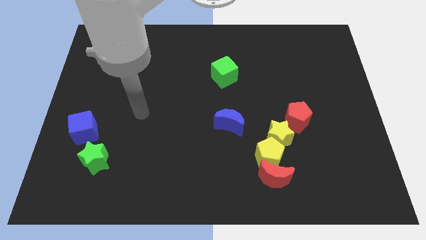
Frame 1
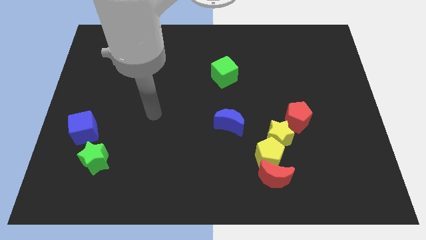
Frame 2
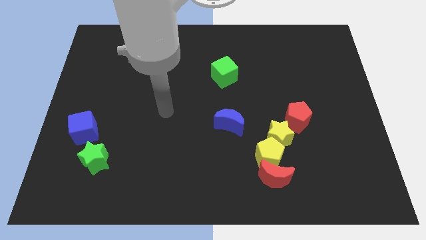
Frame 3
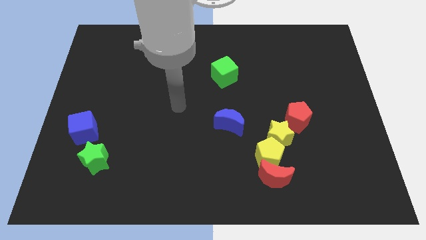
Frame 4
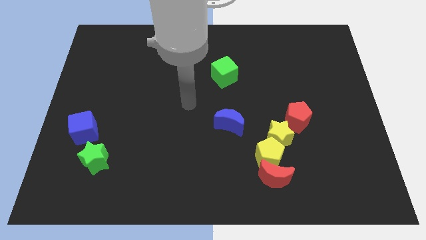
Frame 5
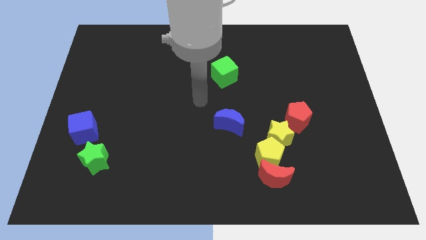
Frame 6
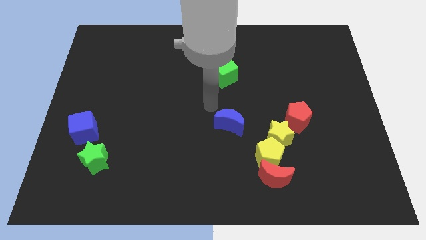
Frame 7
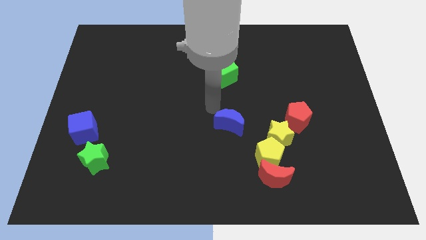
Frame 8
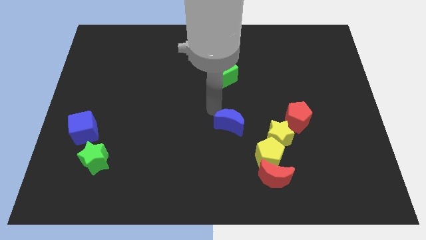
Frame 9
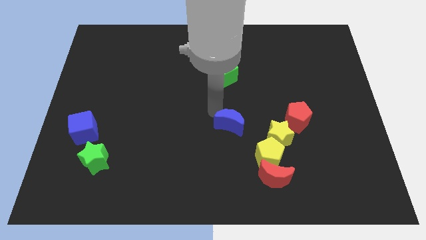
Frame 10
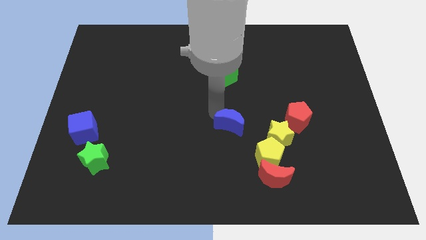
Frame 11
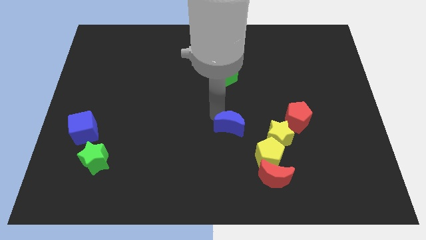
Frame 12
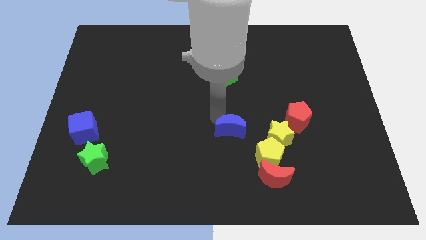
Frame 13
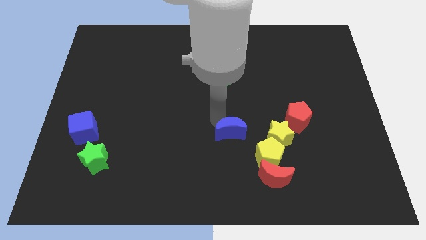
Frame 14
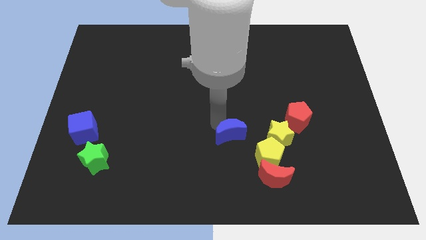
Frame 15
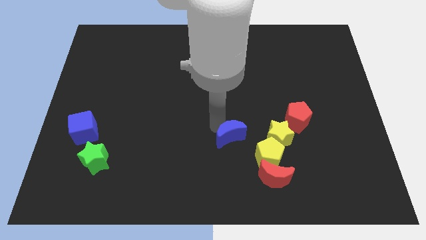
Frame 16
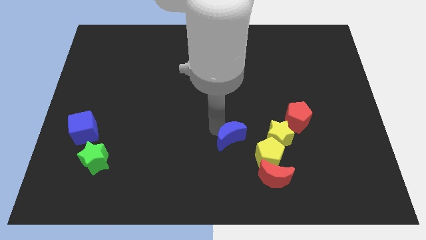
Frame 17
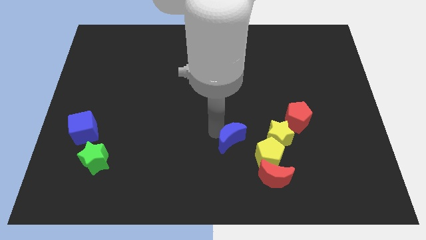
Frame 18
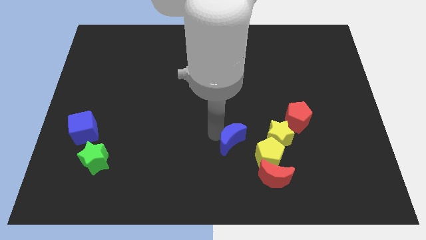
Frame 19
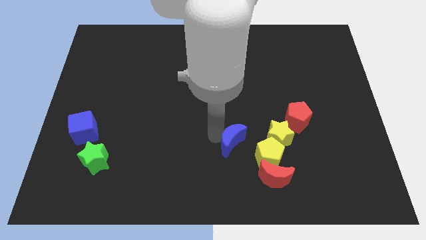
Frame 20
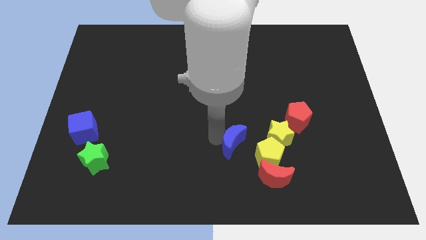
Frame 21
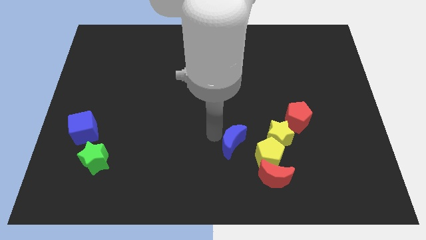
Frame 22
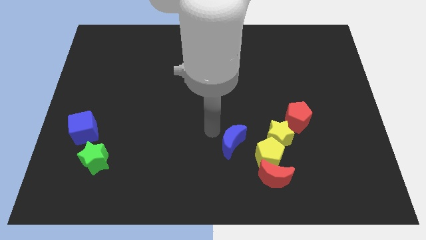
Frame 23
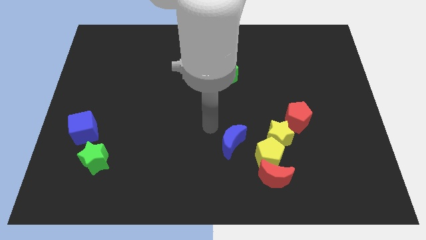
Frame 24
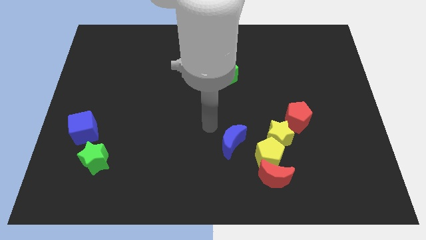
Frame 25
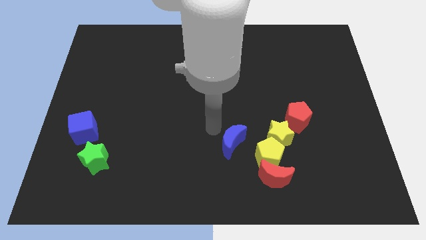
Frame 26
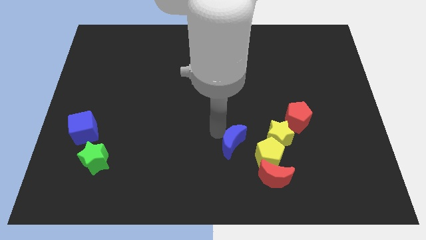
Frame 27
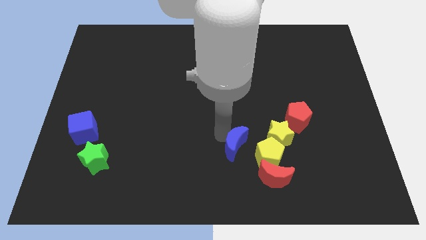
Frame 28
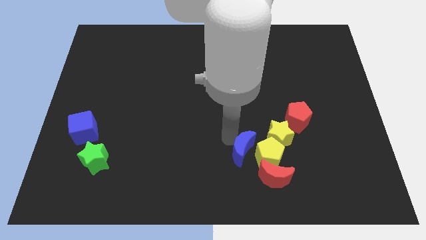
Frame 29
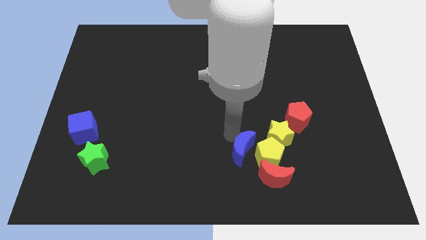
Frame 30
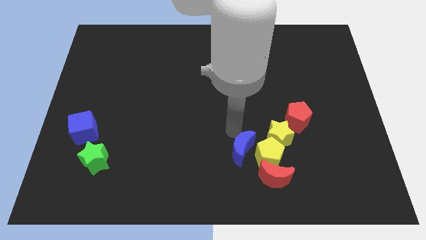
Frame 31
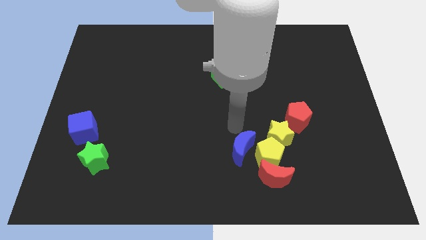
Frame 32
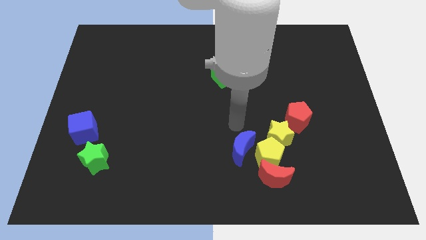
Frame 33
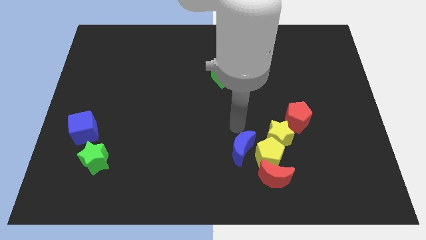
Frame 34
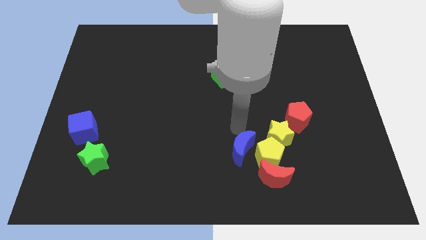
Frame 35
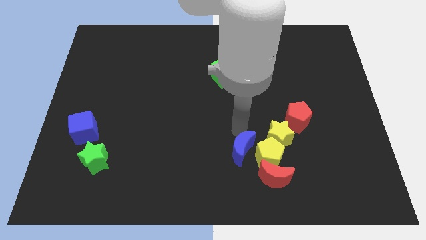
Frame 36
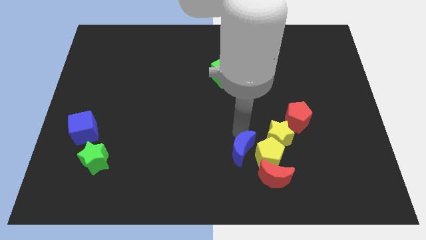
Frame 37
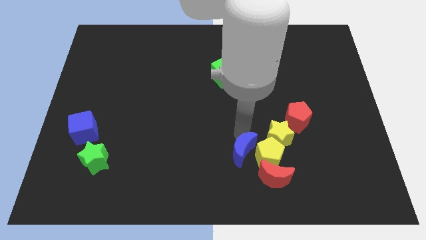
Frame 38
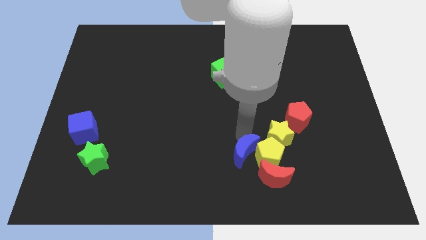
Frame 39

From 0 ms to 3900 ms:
move the blue moon a little diagonally down and right

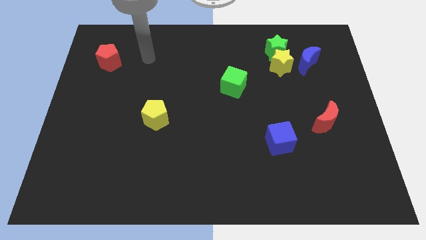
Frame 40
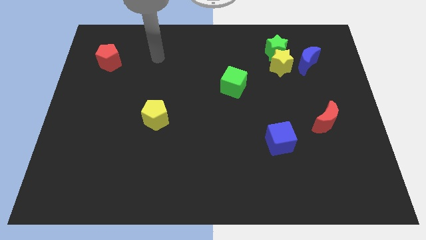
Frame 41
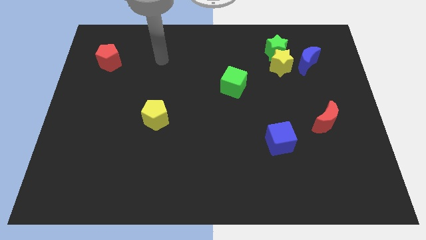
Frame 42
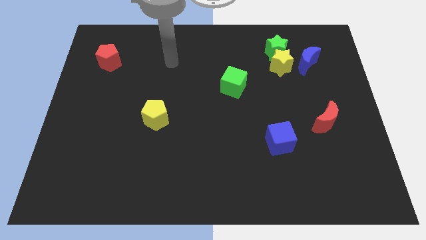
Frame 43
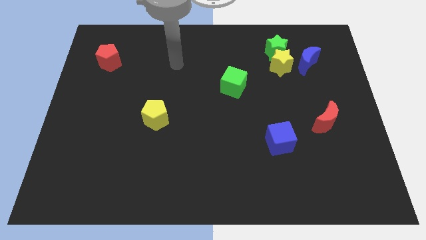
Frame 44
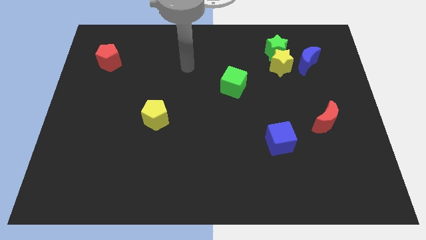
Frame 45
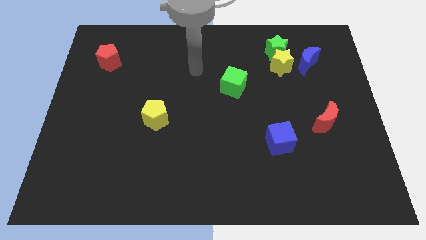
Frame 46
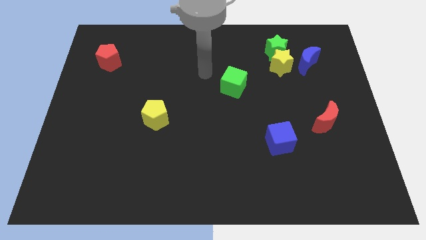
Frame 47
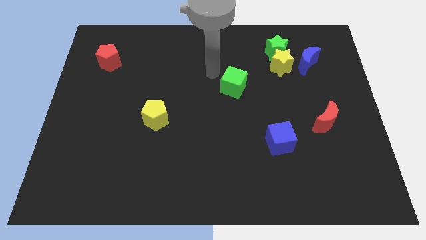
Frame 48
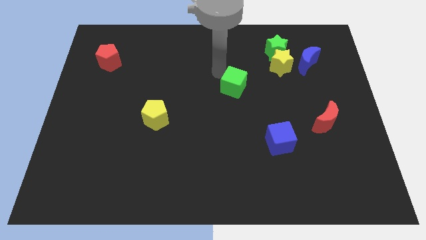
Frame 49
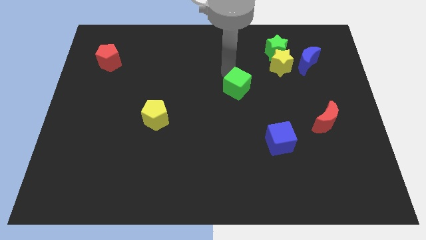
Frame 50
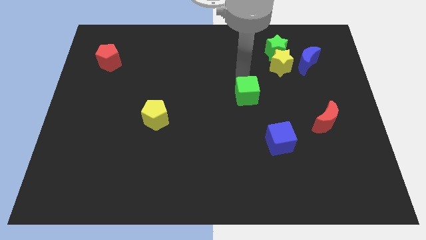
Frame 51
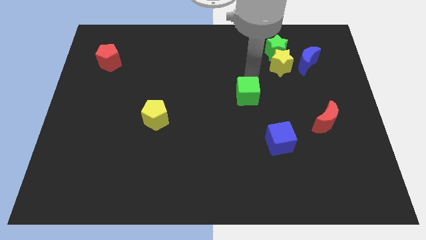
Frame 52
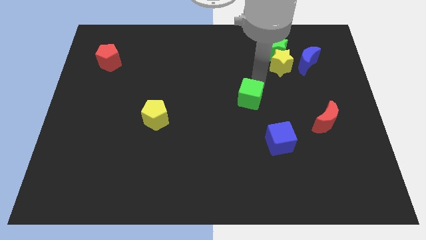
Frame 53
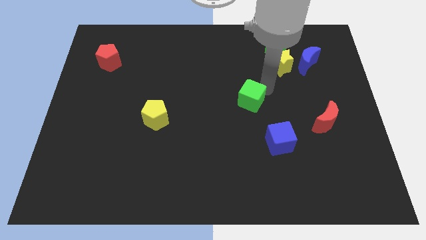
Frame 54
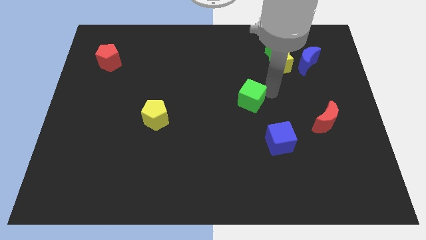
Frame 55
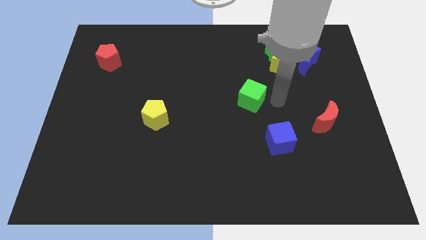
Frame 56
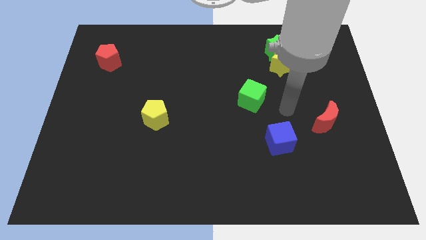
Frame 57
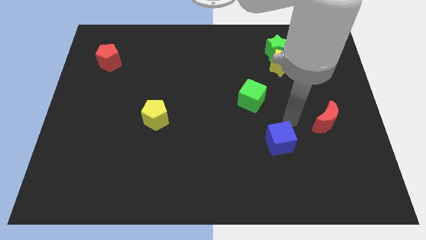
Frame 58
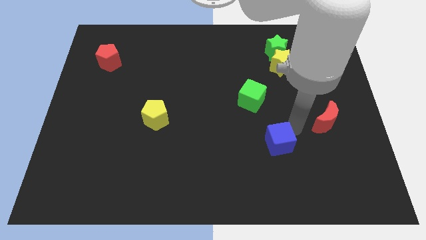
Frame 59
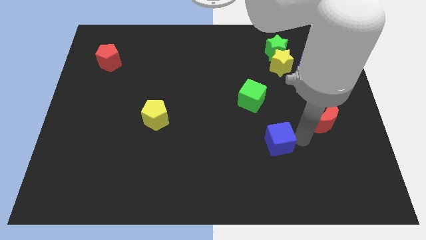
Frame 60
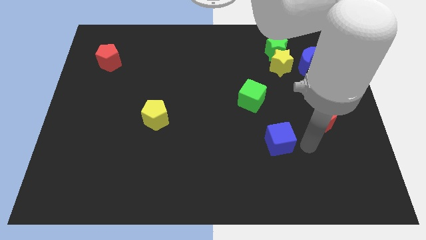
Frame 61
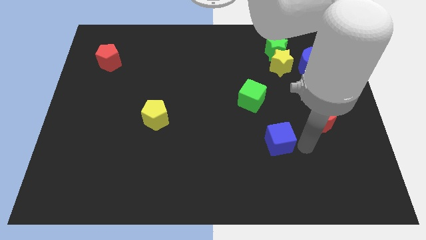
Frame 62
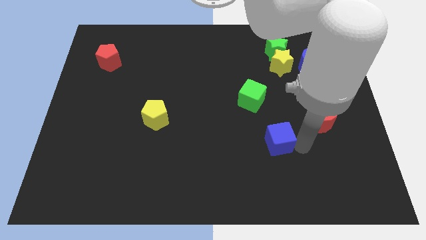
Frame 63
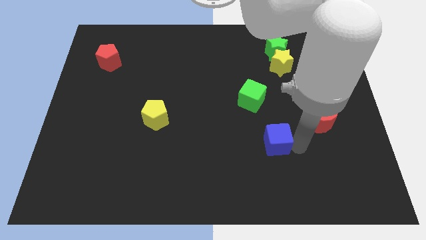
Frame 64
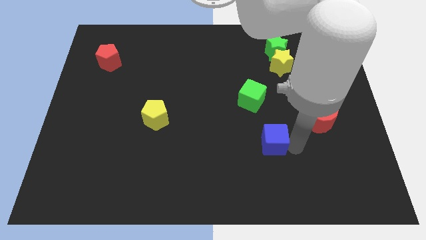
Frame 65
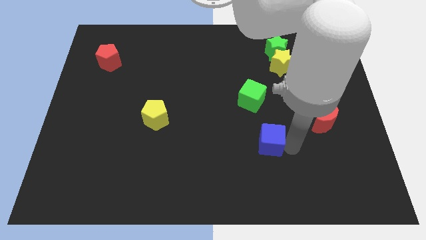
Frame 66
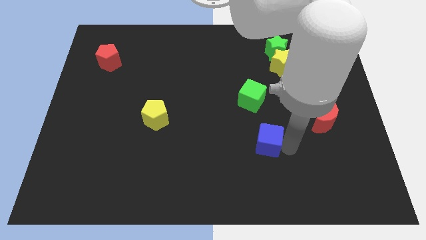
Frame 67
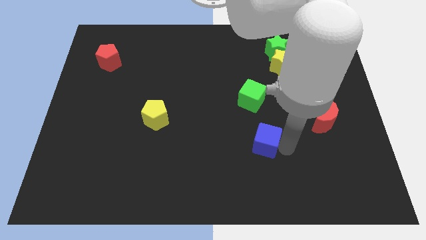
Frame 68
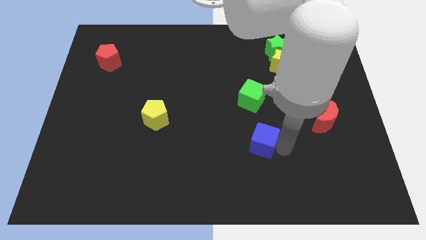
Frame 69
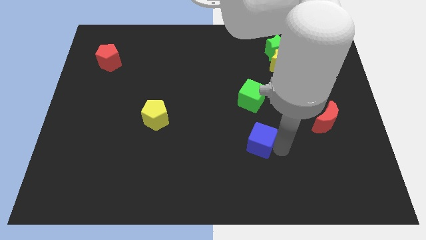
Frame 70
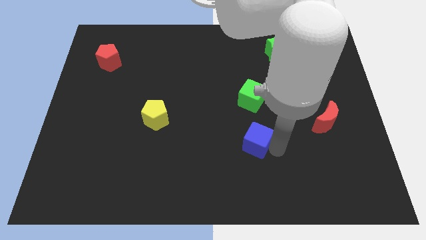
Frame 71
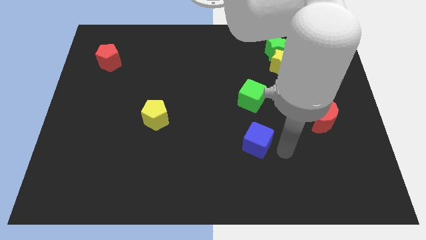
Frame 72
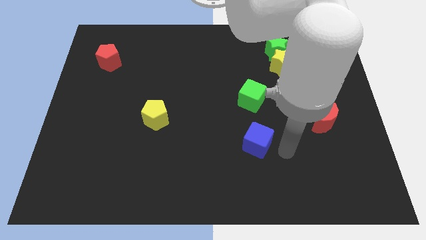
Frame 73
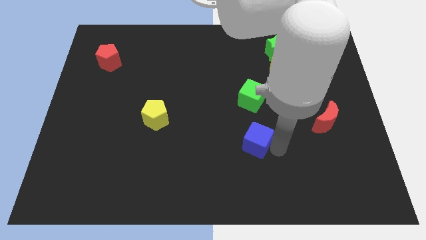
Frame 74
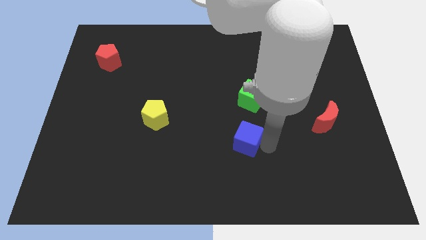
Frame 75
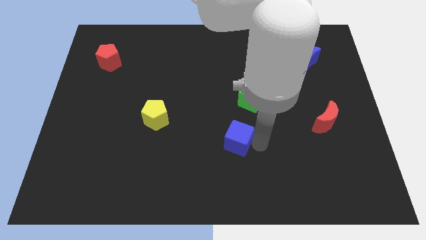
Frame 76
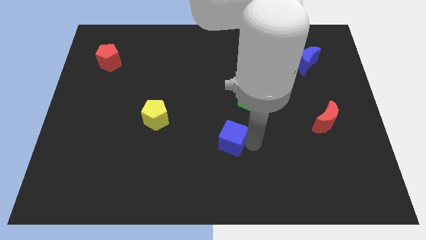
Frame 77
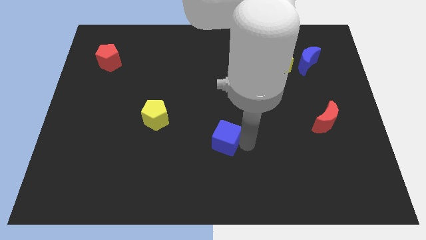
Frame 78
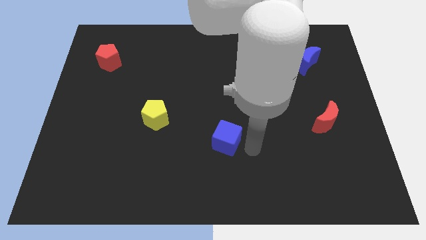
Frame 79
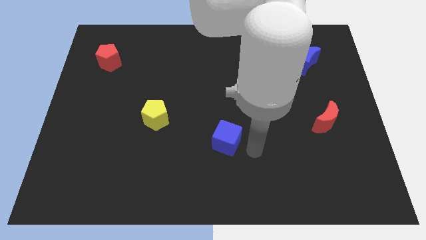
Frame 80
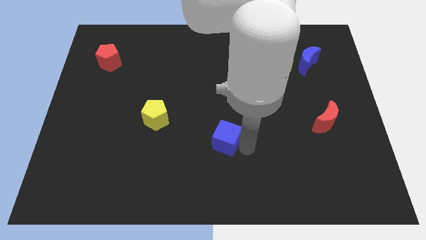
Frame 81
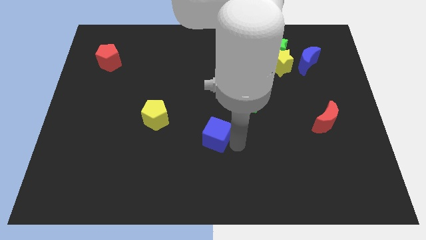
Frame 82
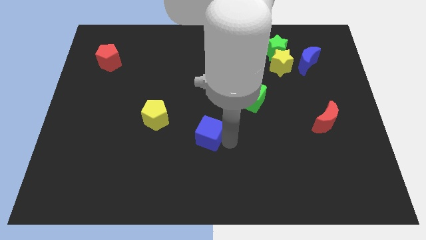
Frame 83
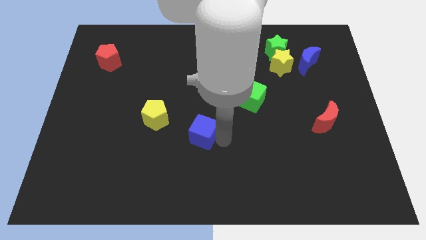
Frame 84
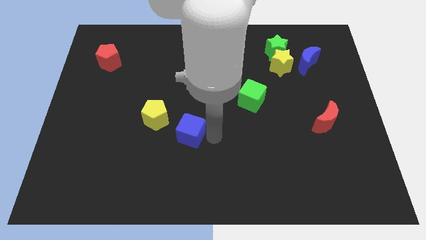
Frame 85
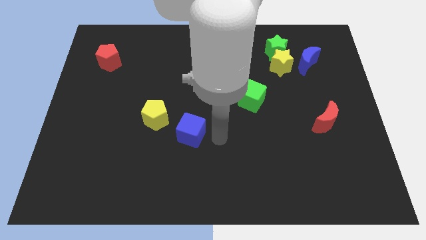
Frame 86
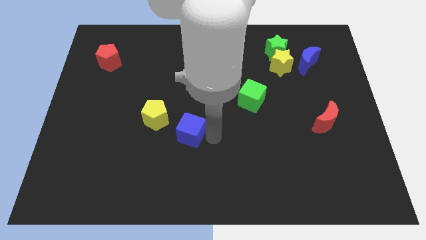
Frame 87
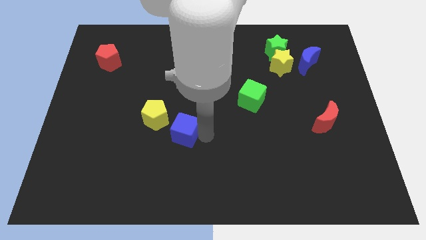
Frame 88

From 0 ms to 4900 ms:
push the blue cube to the left
